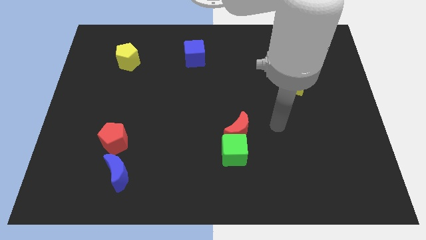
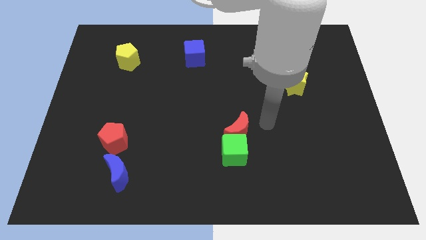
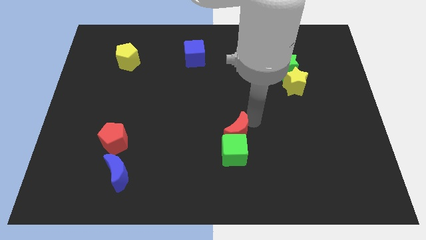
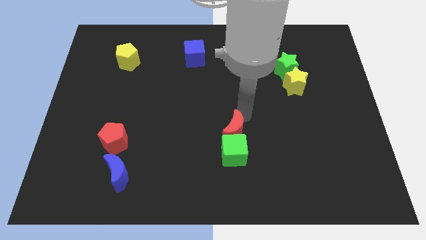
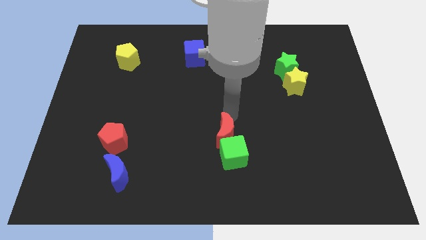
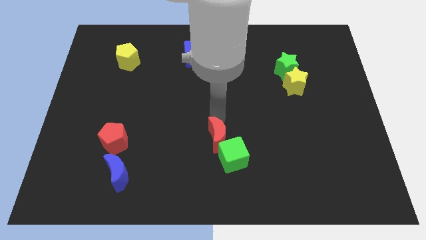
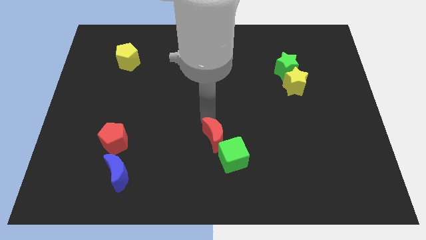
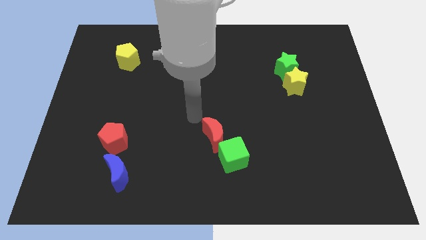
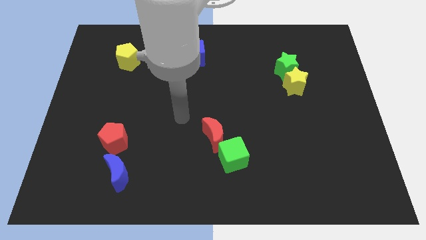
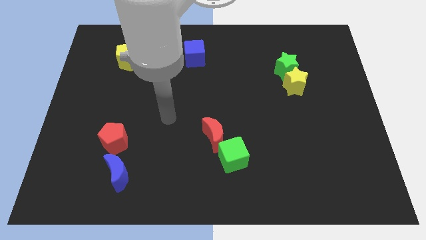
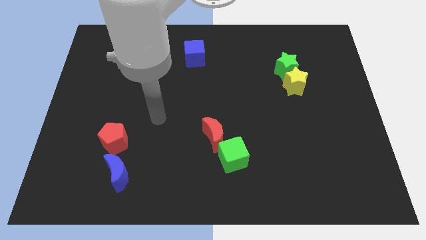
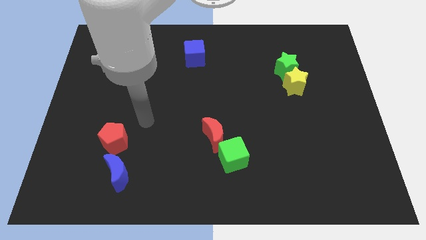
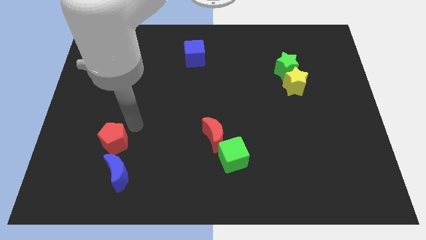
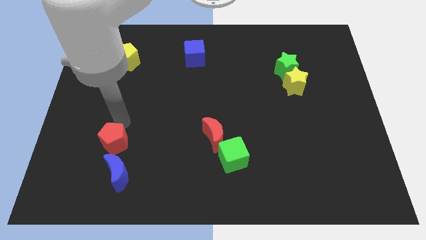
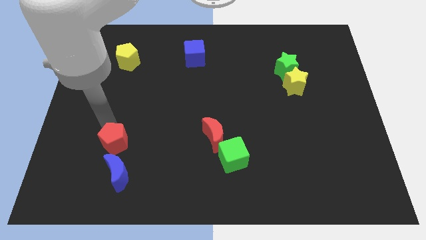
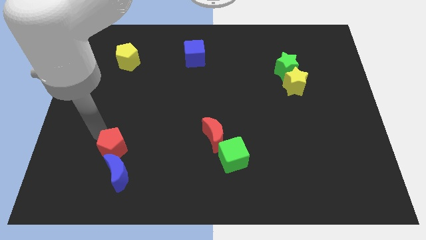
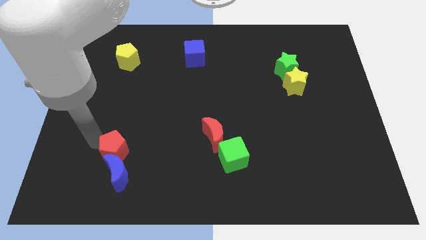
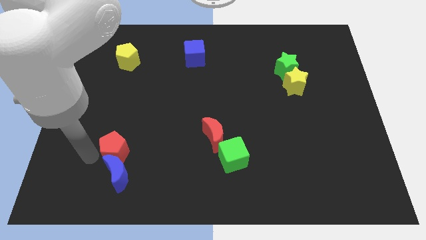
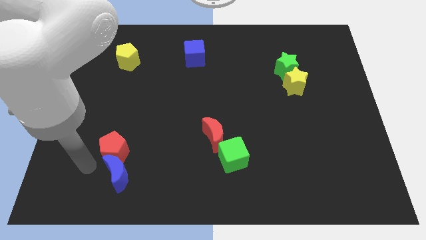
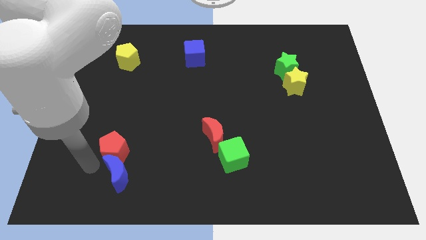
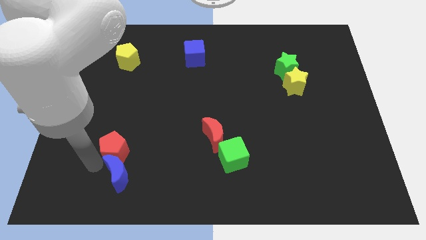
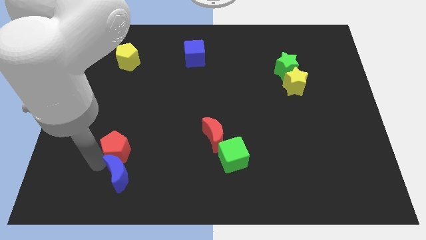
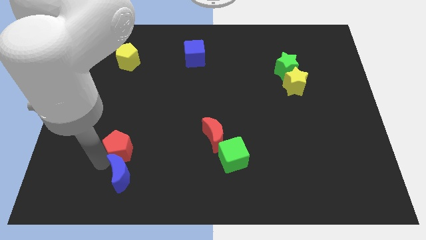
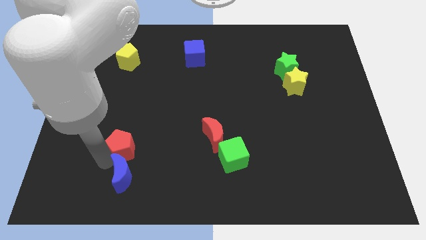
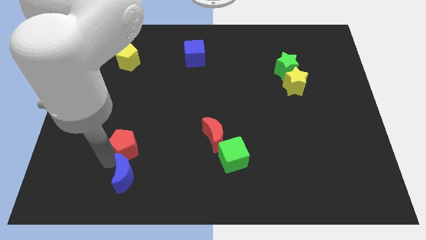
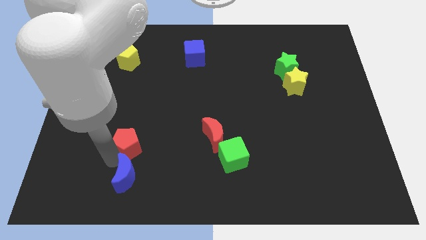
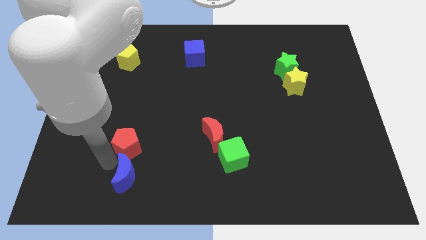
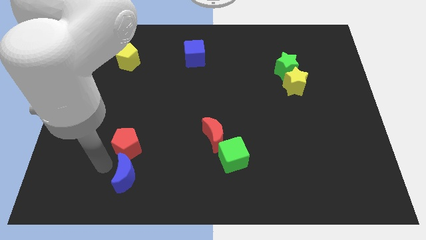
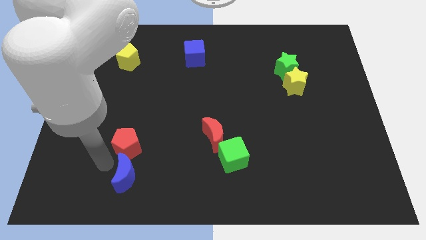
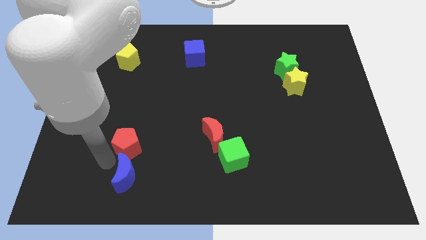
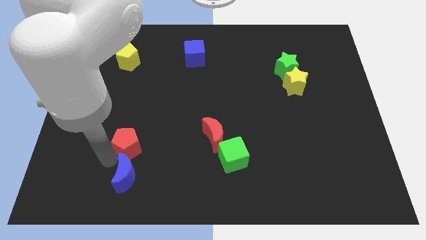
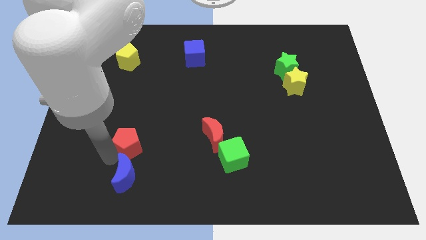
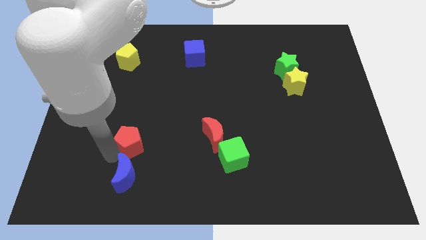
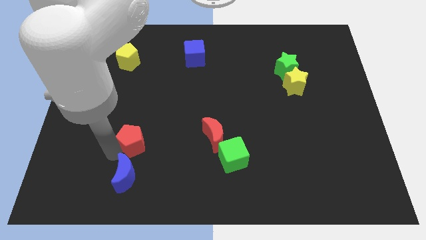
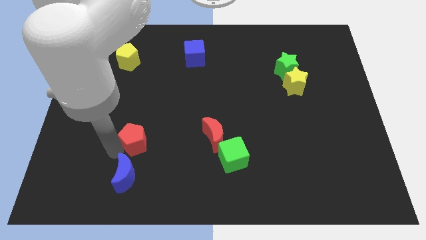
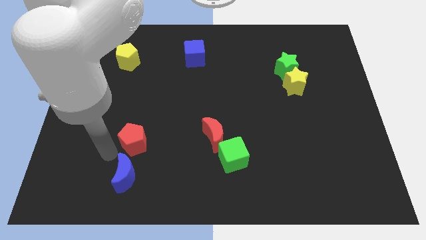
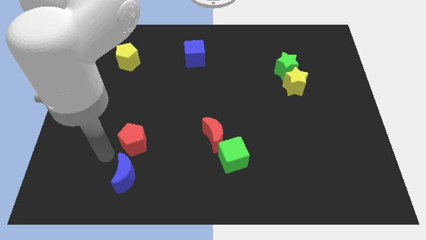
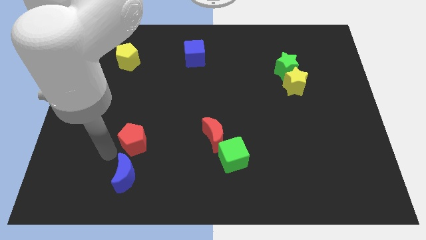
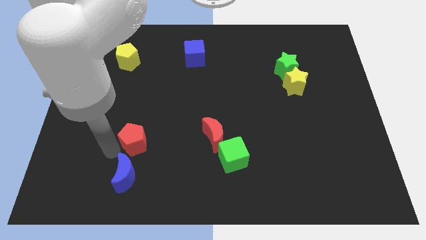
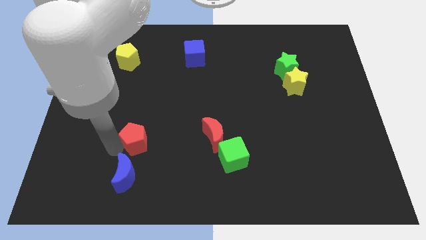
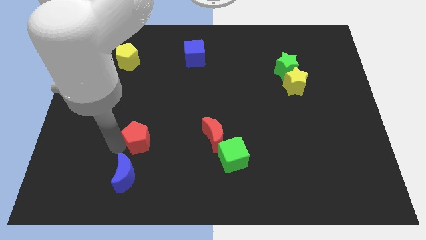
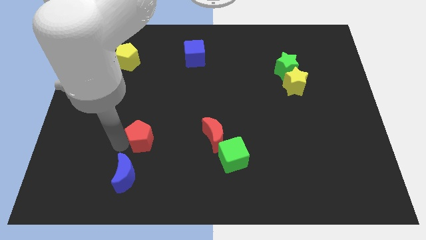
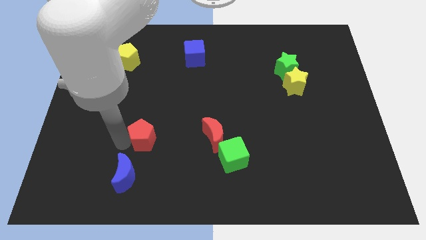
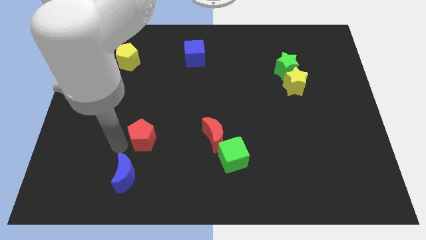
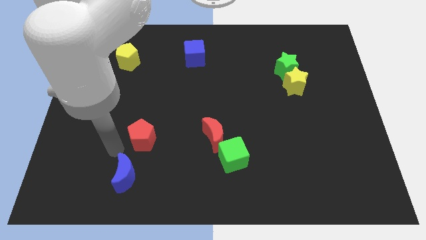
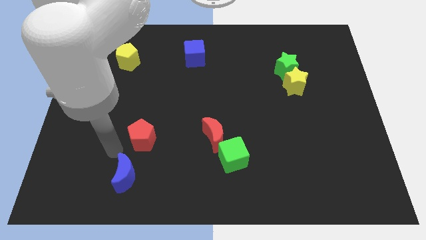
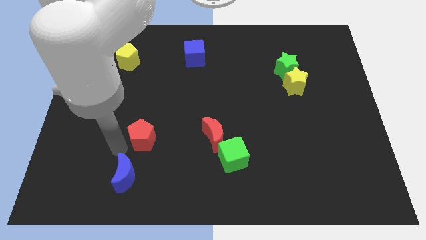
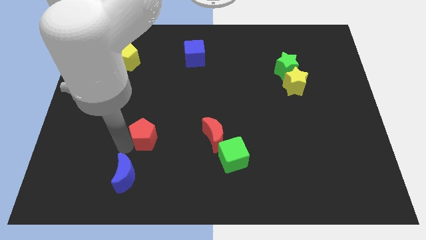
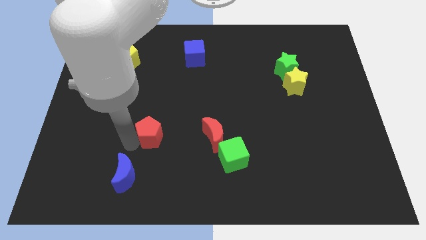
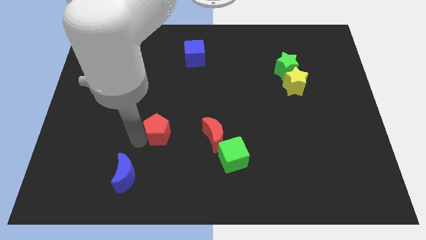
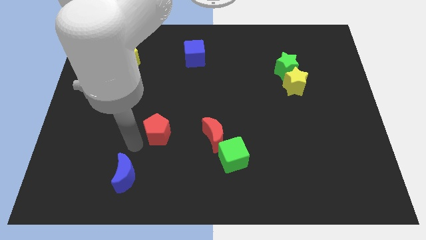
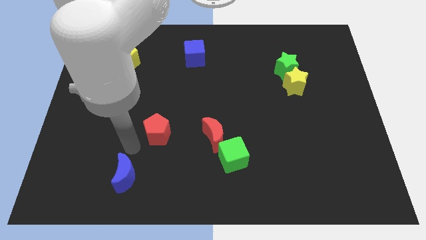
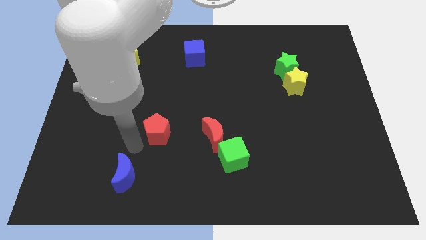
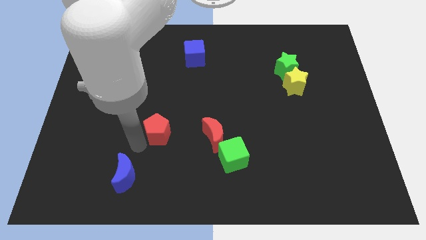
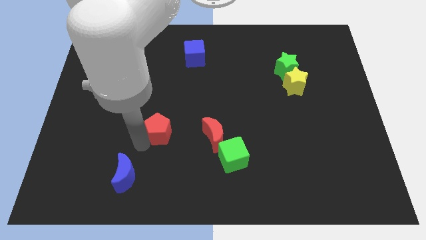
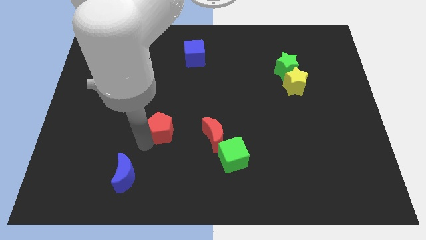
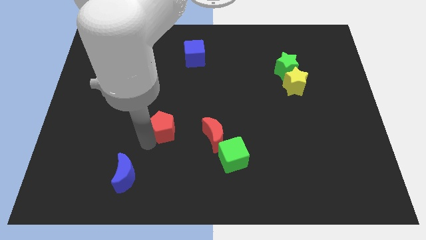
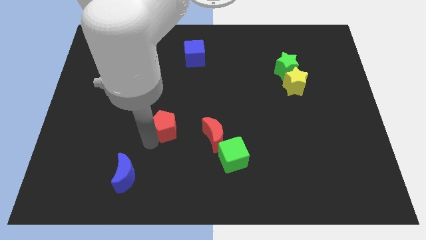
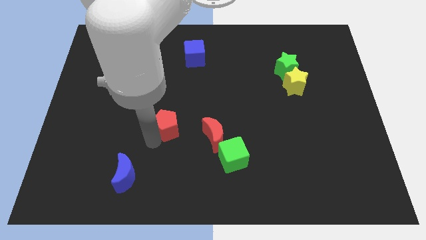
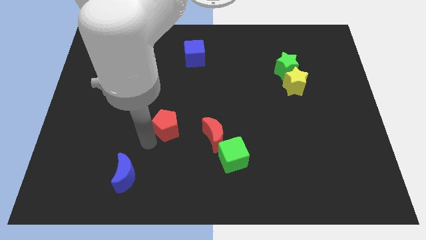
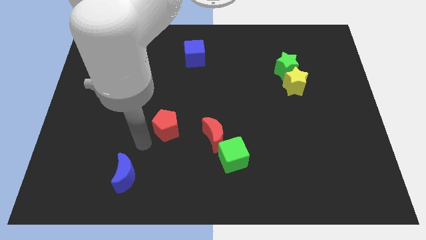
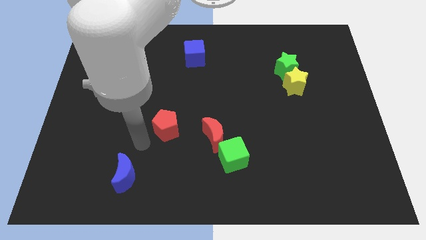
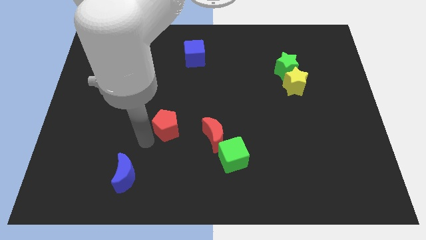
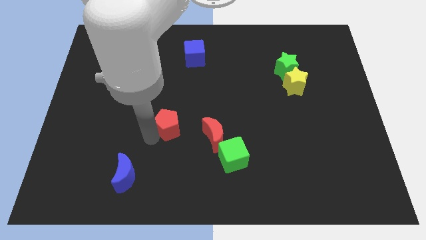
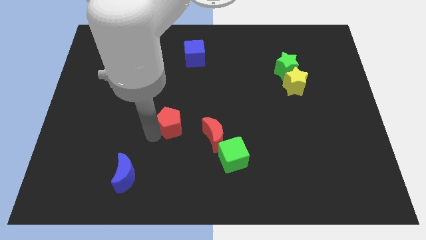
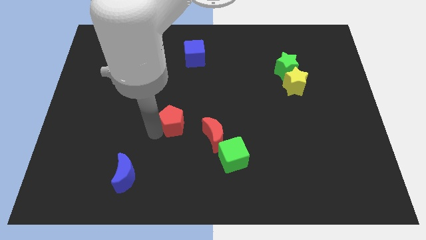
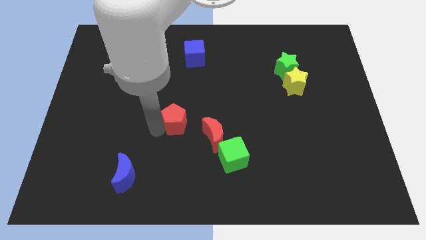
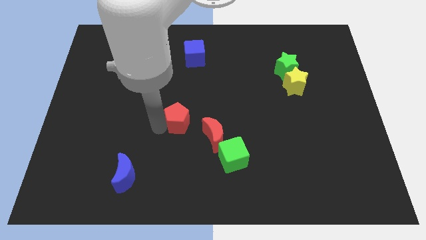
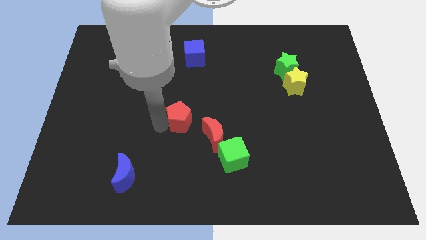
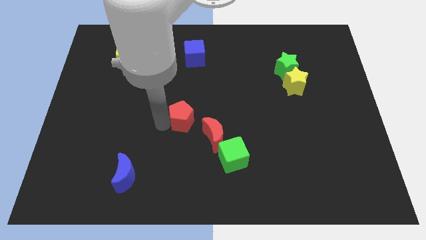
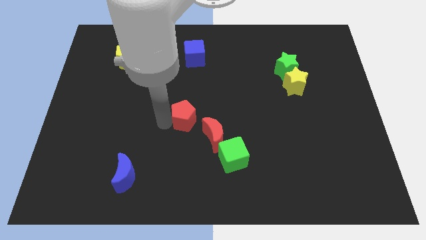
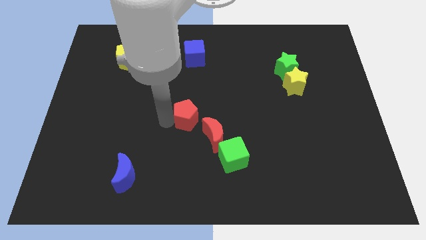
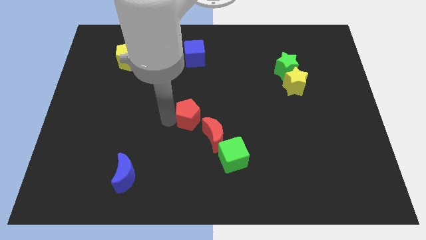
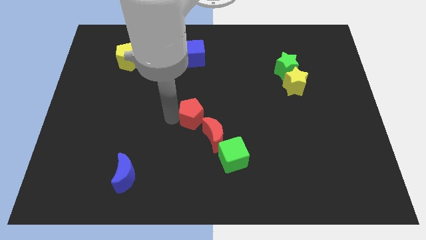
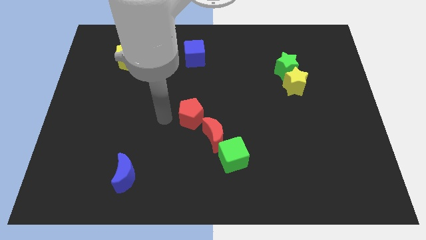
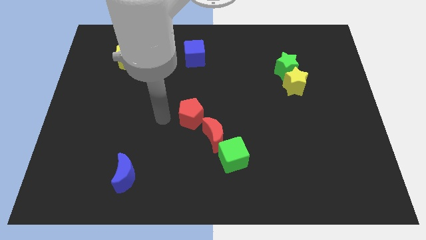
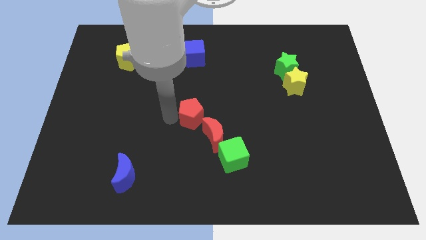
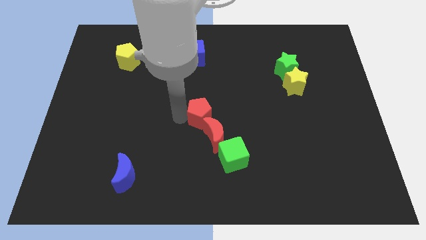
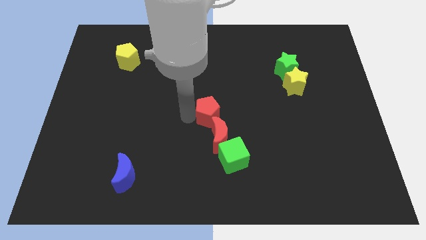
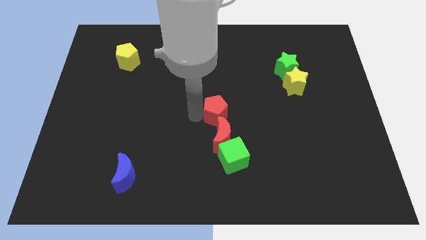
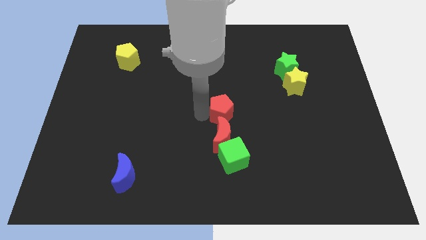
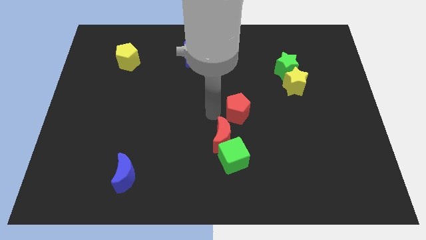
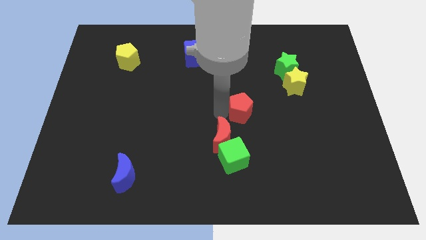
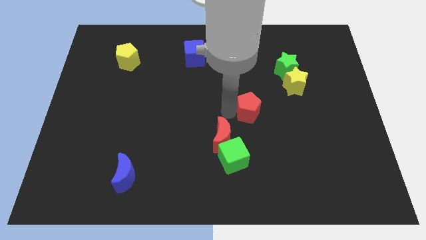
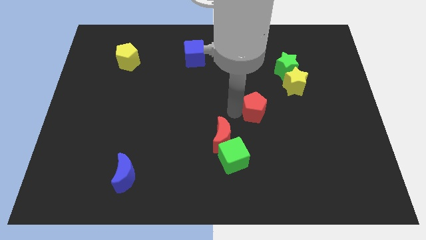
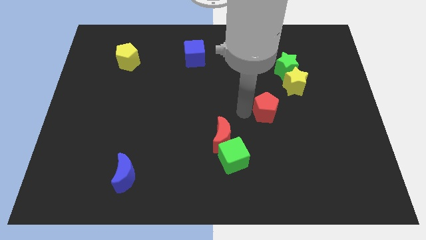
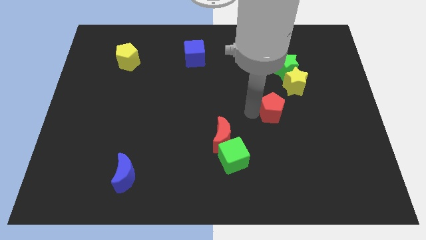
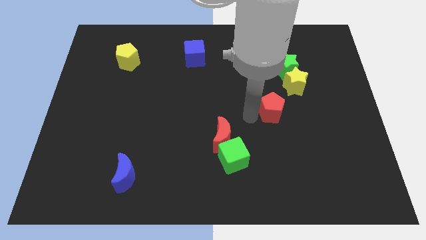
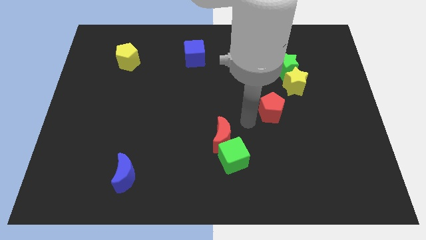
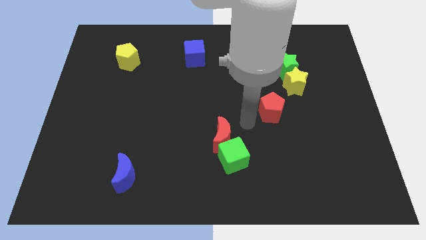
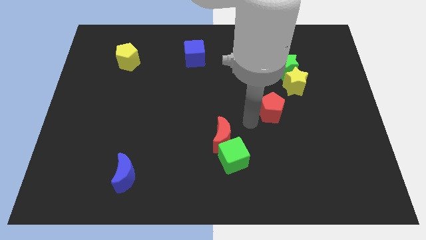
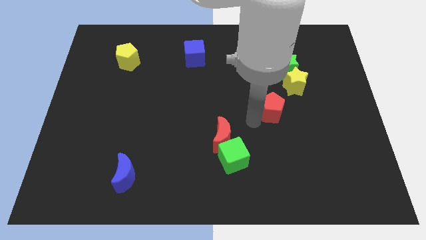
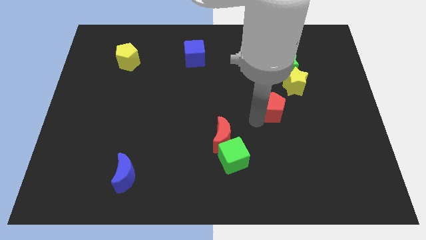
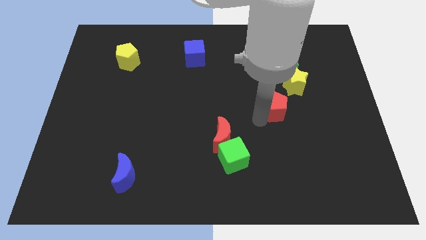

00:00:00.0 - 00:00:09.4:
put the red pentagon to the bottom of the green star
